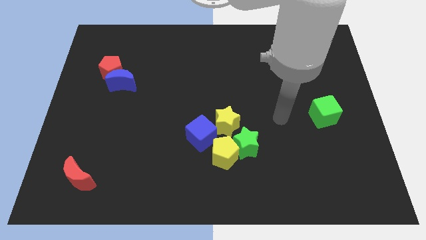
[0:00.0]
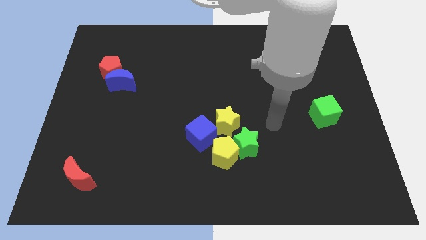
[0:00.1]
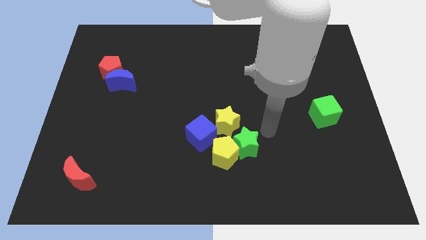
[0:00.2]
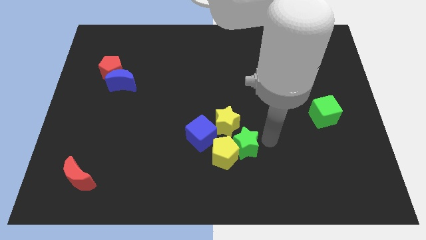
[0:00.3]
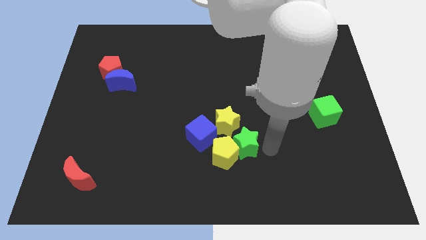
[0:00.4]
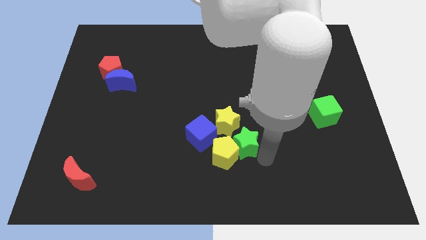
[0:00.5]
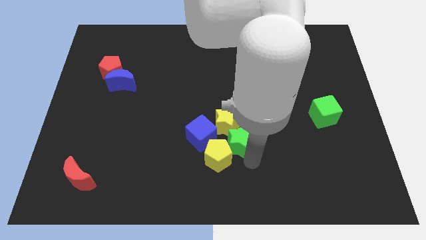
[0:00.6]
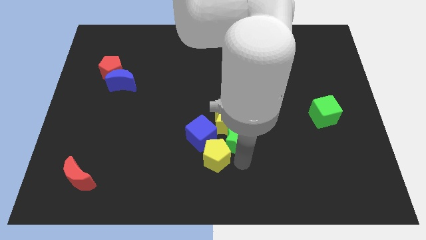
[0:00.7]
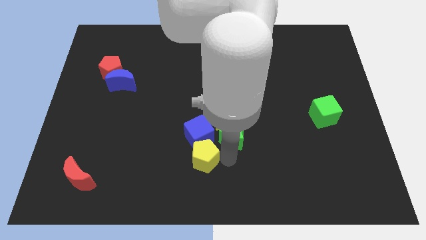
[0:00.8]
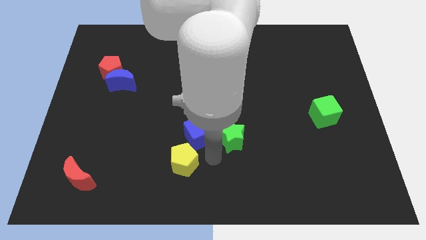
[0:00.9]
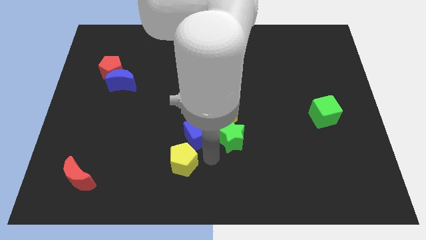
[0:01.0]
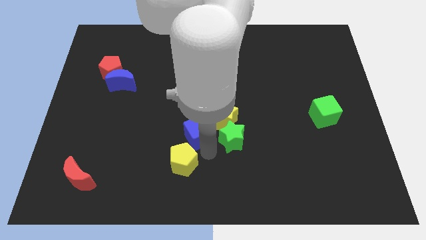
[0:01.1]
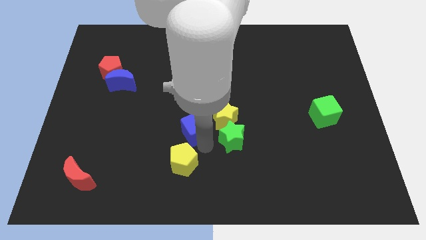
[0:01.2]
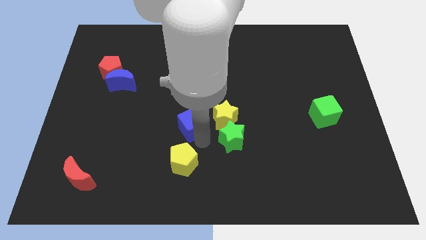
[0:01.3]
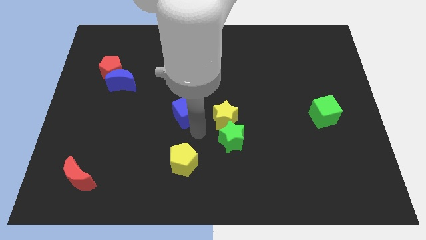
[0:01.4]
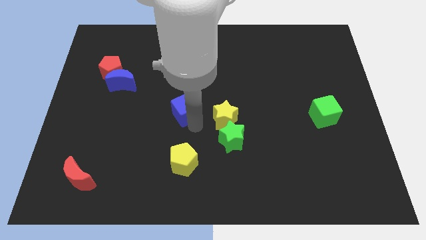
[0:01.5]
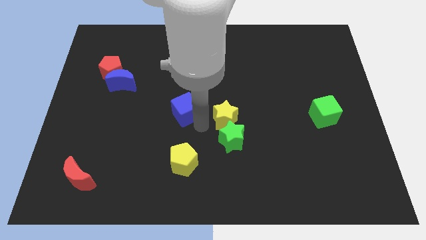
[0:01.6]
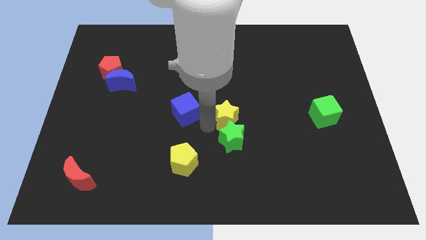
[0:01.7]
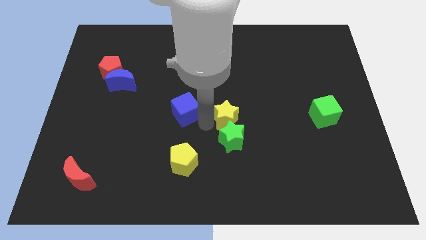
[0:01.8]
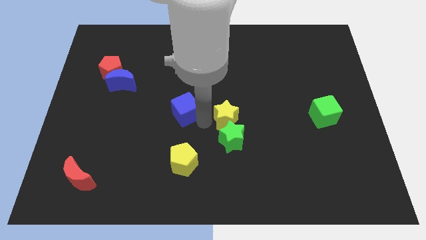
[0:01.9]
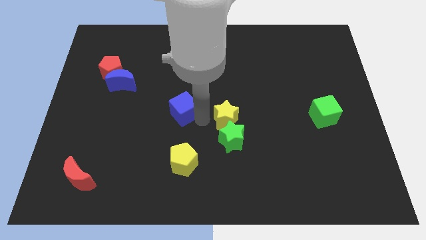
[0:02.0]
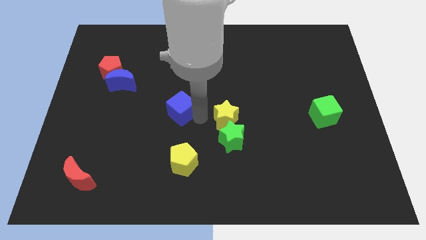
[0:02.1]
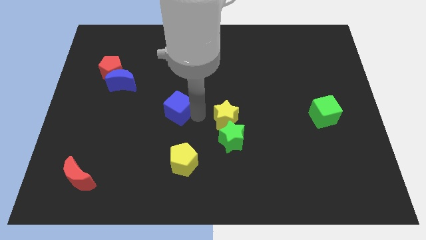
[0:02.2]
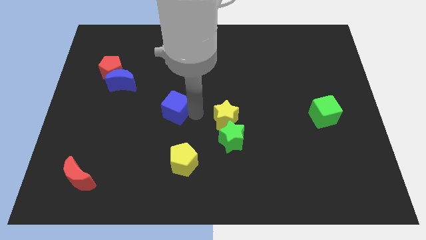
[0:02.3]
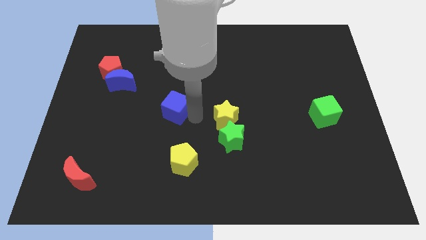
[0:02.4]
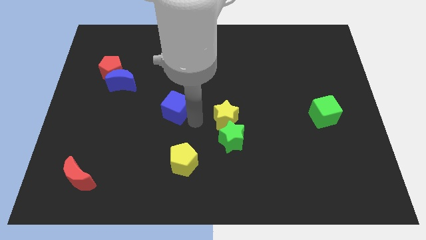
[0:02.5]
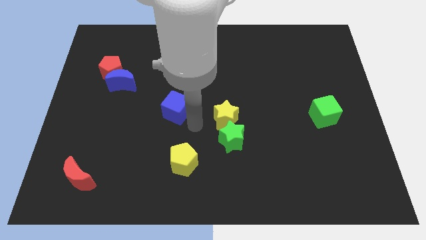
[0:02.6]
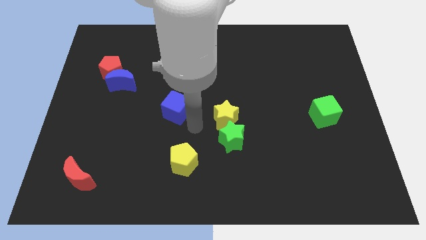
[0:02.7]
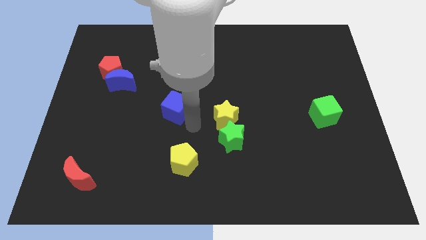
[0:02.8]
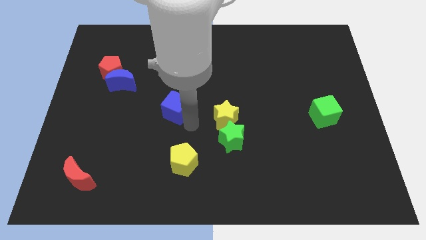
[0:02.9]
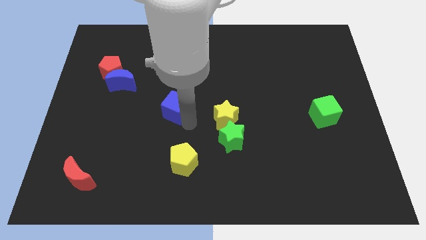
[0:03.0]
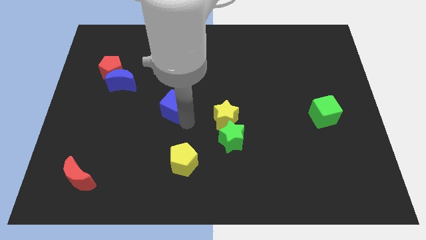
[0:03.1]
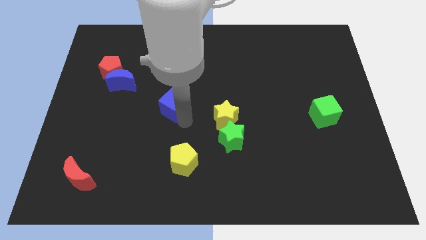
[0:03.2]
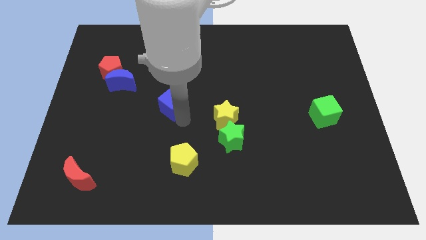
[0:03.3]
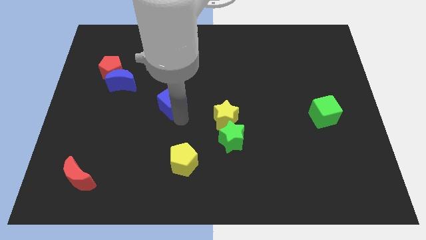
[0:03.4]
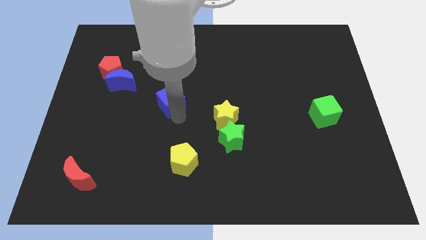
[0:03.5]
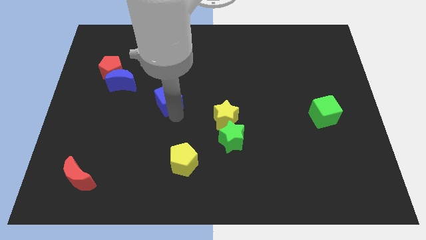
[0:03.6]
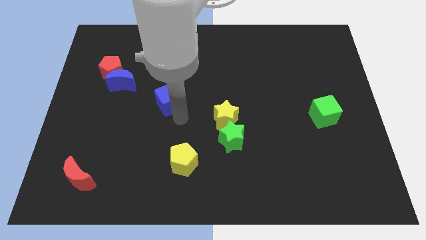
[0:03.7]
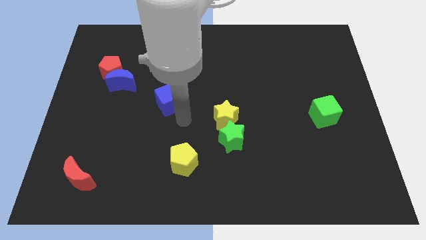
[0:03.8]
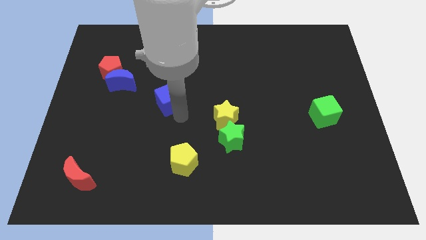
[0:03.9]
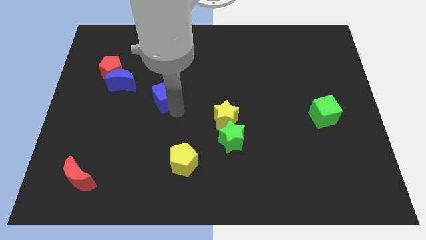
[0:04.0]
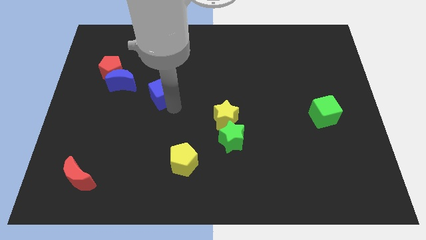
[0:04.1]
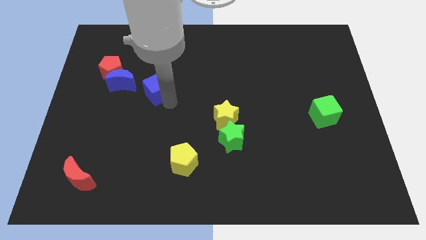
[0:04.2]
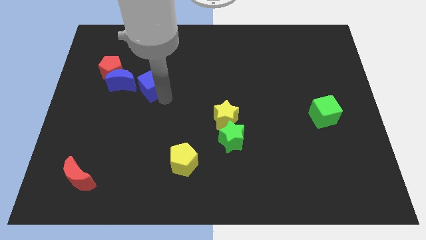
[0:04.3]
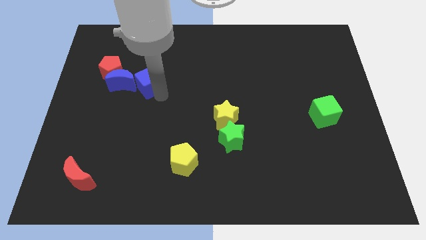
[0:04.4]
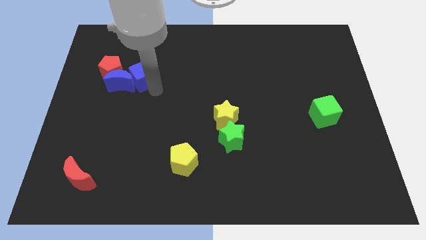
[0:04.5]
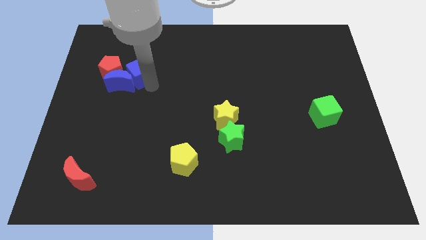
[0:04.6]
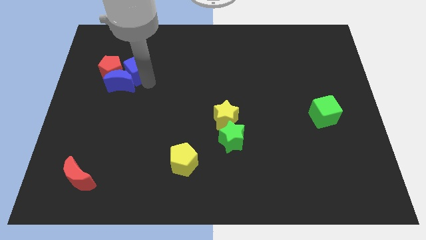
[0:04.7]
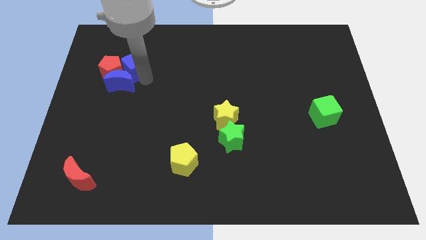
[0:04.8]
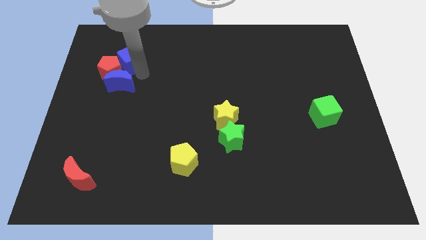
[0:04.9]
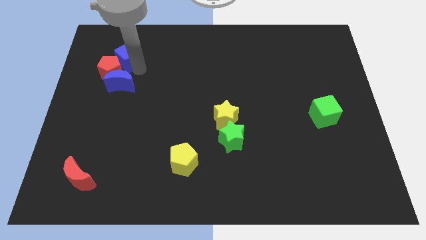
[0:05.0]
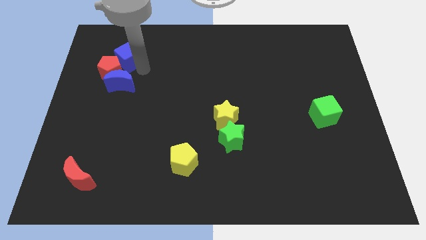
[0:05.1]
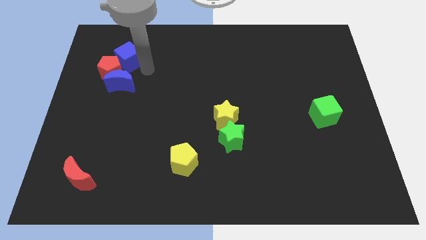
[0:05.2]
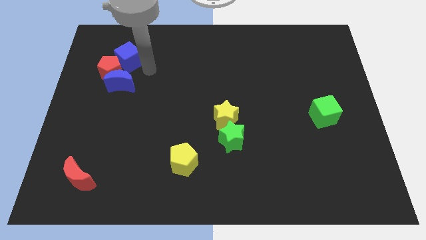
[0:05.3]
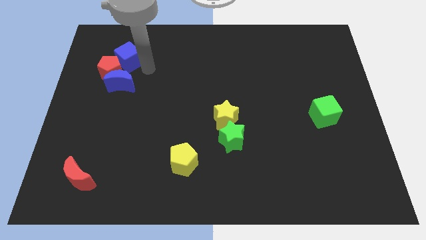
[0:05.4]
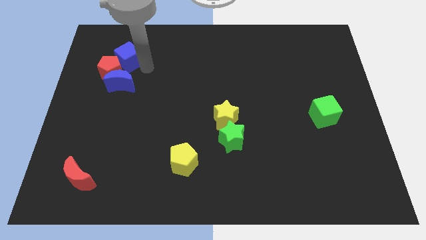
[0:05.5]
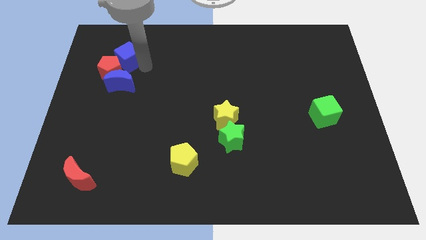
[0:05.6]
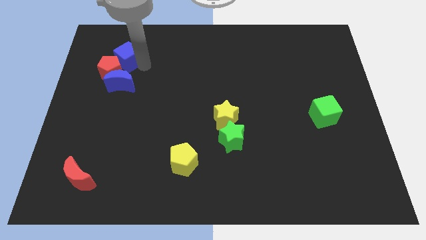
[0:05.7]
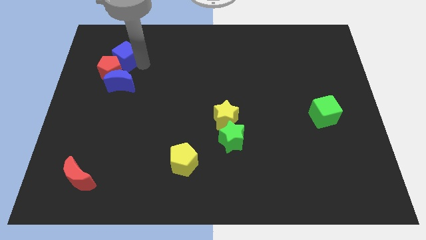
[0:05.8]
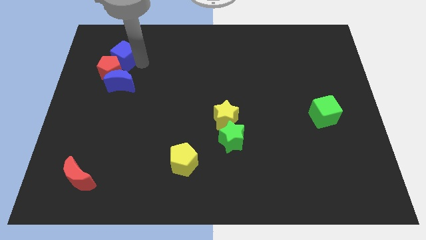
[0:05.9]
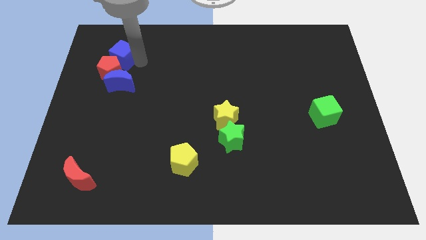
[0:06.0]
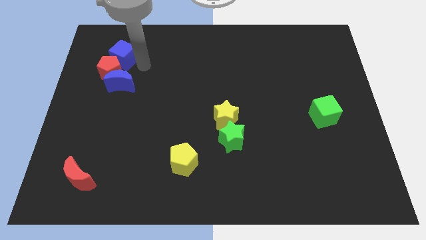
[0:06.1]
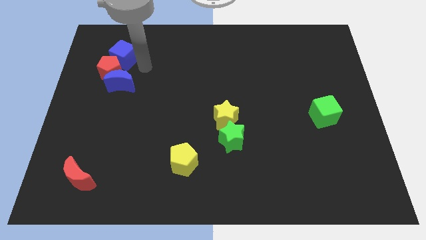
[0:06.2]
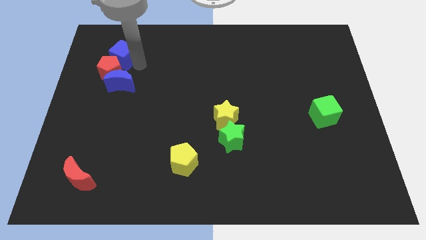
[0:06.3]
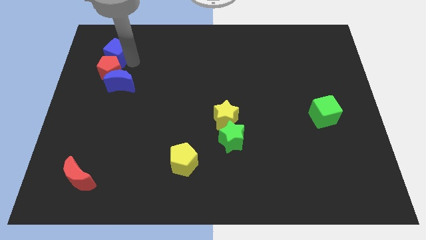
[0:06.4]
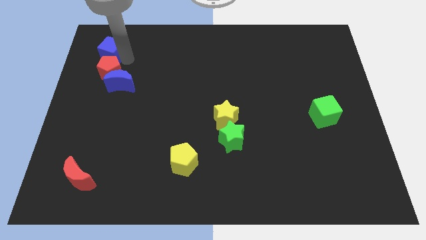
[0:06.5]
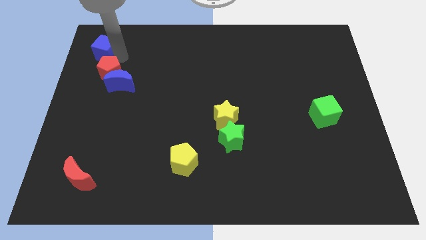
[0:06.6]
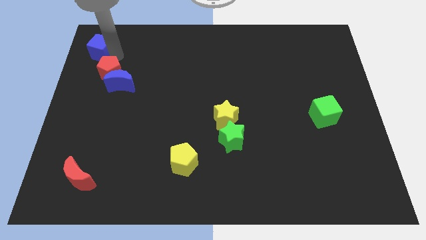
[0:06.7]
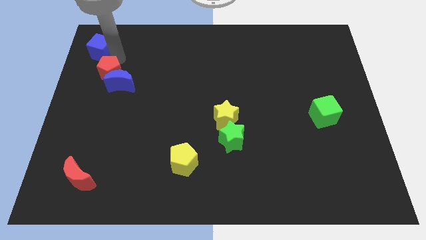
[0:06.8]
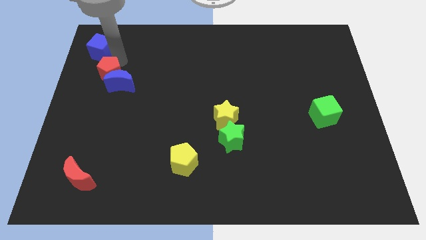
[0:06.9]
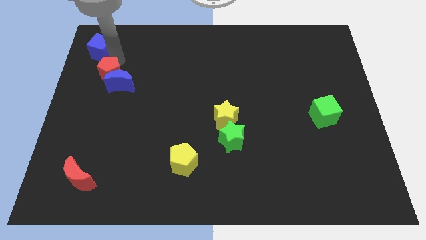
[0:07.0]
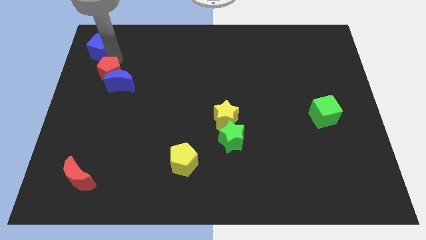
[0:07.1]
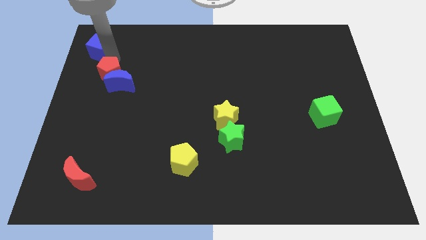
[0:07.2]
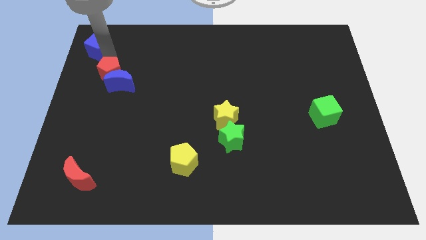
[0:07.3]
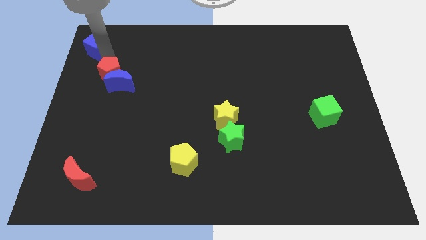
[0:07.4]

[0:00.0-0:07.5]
put the blue cube to the top left of the board
